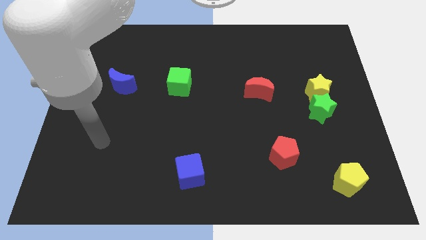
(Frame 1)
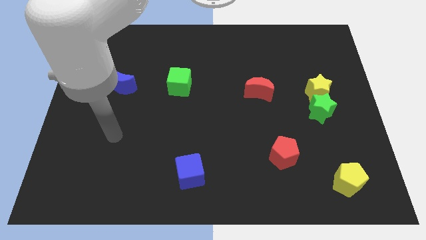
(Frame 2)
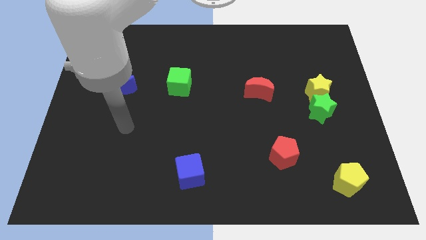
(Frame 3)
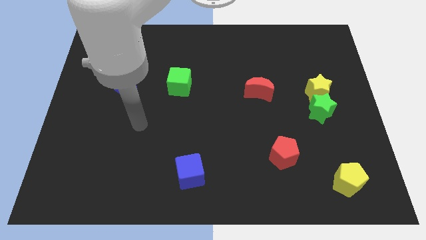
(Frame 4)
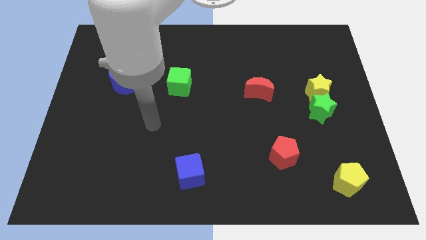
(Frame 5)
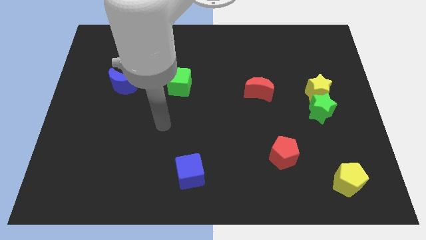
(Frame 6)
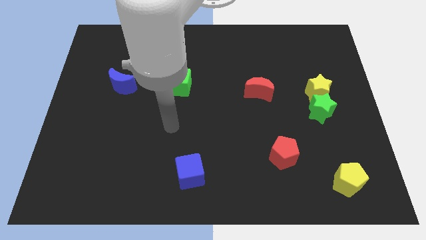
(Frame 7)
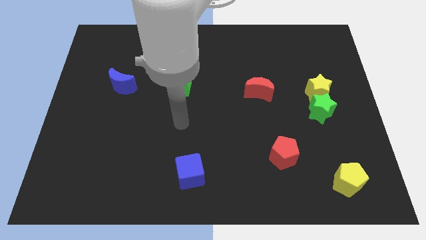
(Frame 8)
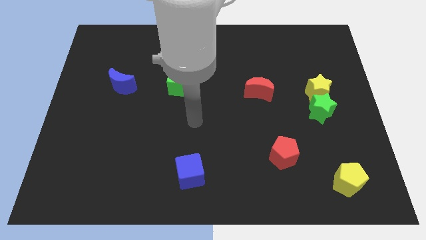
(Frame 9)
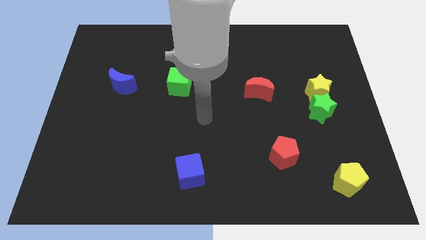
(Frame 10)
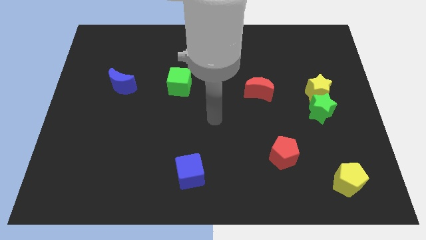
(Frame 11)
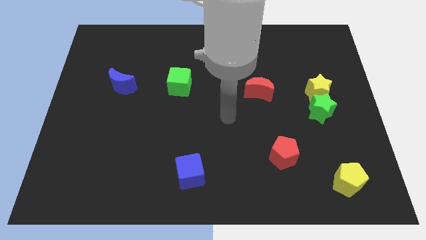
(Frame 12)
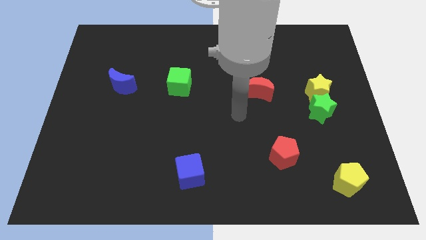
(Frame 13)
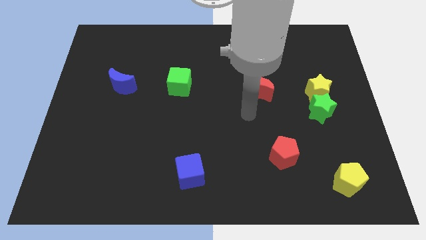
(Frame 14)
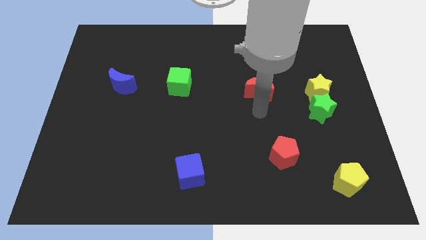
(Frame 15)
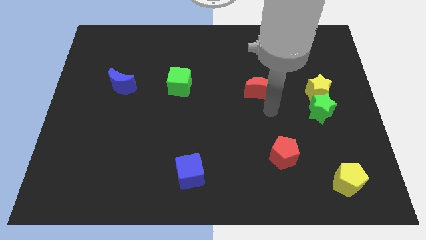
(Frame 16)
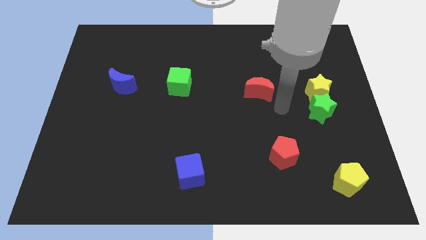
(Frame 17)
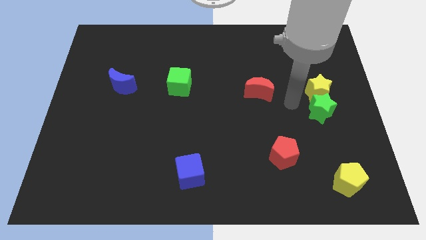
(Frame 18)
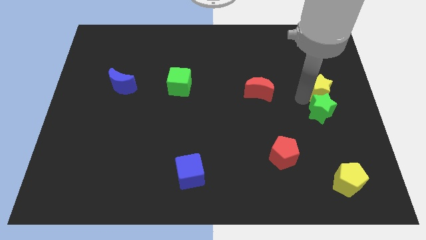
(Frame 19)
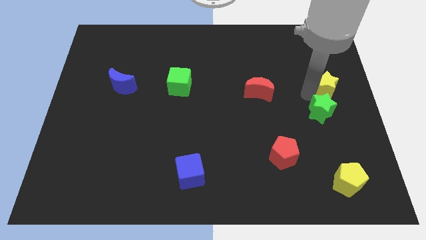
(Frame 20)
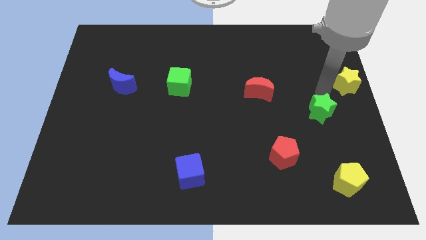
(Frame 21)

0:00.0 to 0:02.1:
pull the green star apart from the yellow star

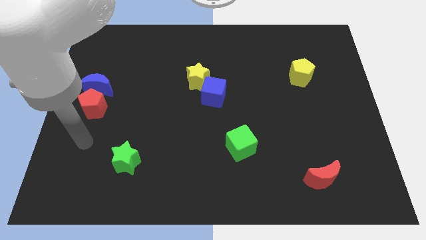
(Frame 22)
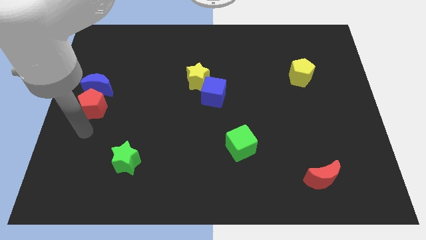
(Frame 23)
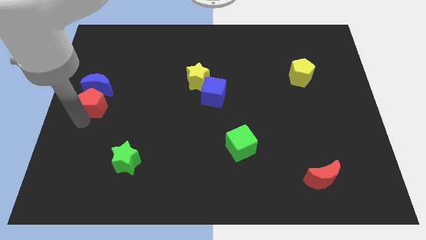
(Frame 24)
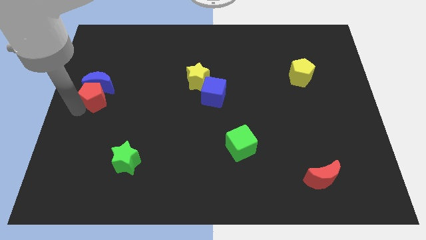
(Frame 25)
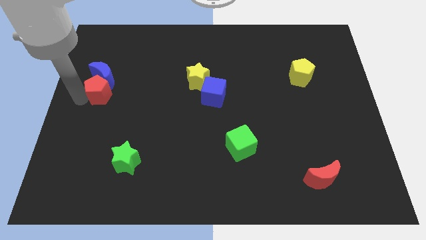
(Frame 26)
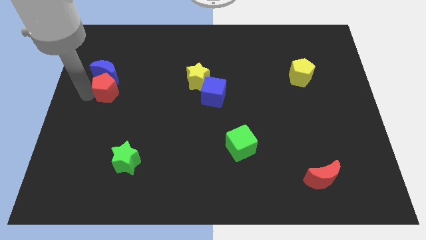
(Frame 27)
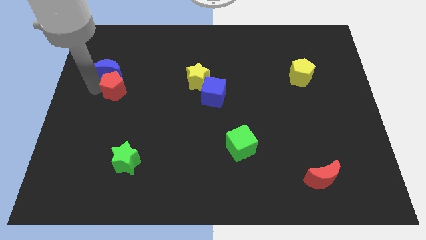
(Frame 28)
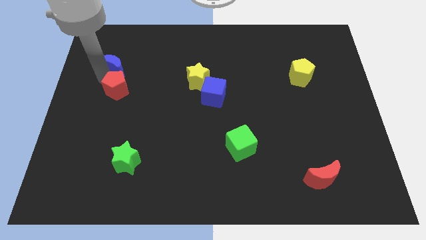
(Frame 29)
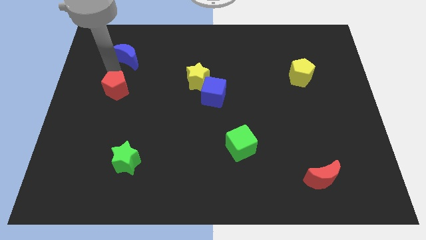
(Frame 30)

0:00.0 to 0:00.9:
move the red pentagon away from the blue moon

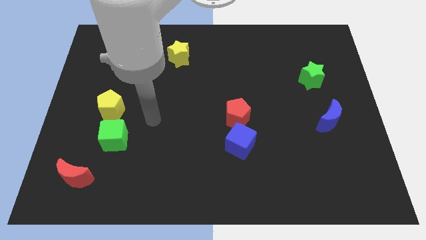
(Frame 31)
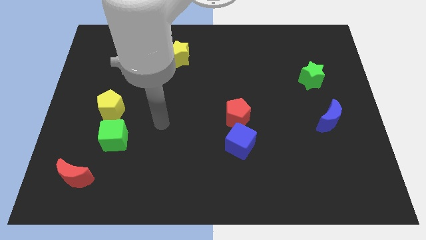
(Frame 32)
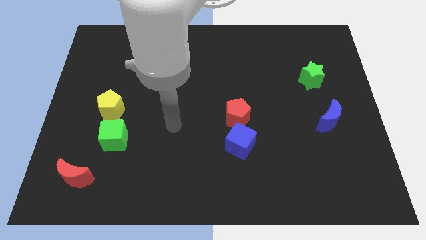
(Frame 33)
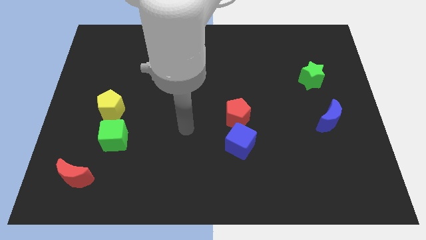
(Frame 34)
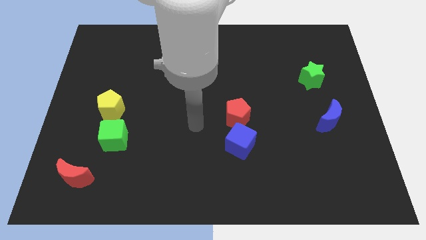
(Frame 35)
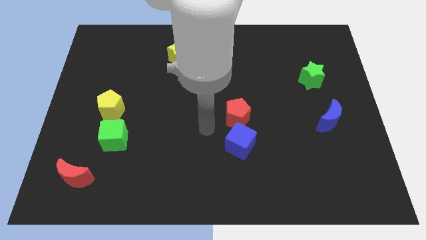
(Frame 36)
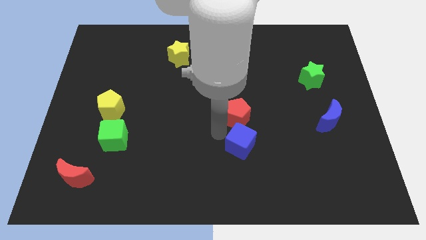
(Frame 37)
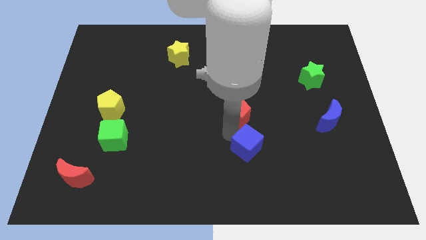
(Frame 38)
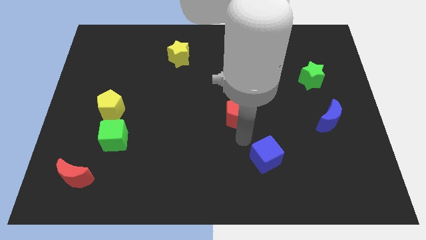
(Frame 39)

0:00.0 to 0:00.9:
move the red pentagon away from the blue cube

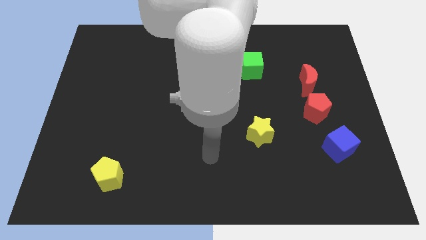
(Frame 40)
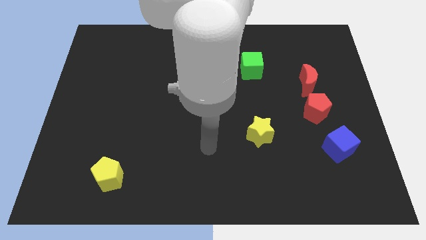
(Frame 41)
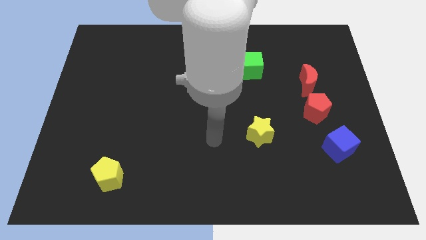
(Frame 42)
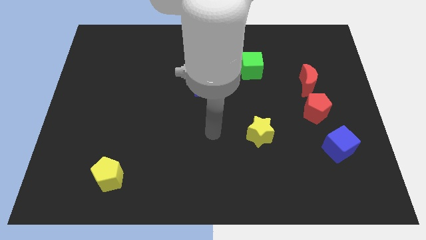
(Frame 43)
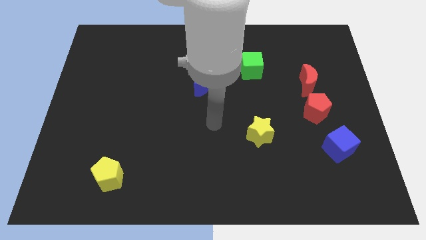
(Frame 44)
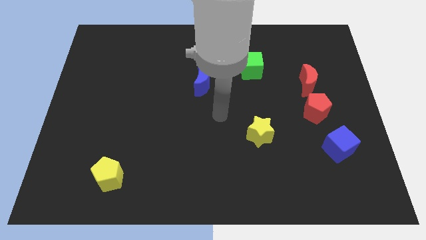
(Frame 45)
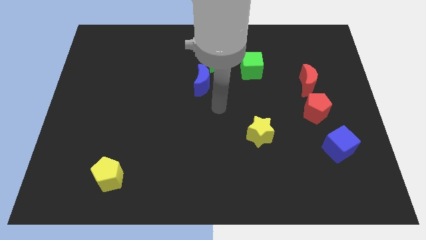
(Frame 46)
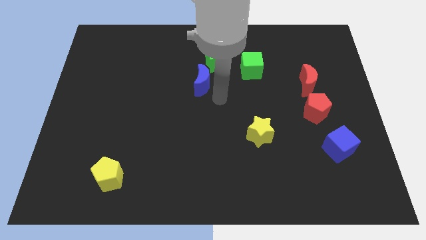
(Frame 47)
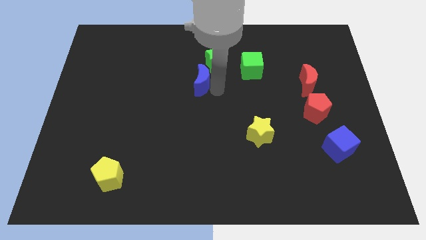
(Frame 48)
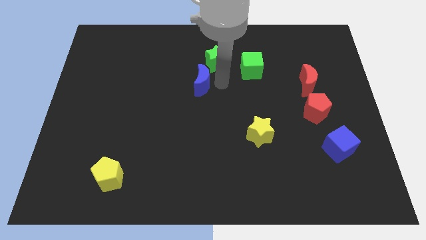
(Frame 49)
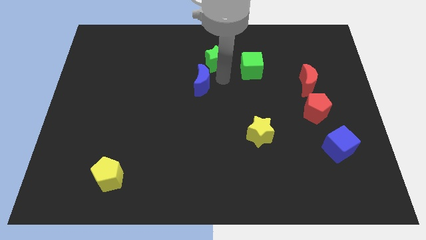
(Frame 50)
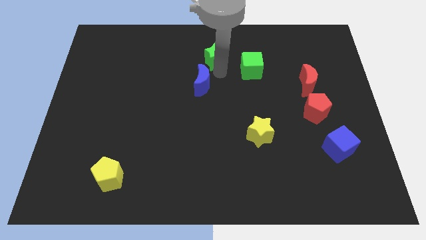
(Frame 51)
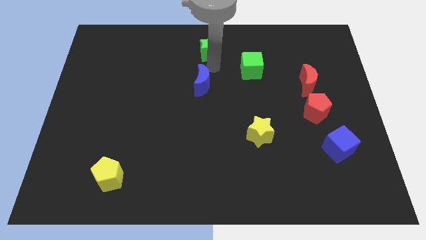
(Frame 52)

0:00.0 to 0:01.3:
pull the blue moon apart from the green star

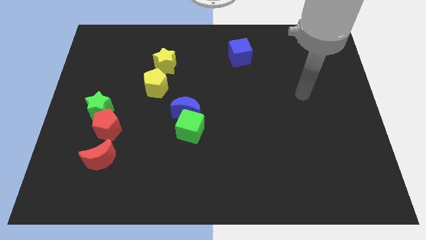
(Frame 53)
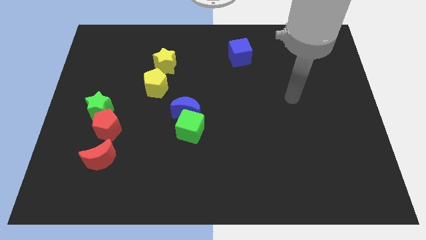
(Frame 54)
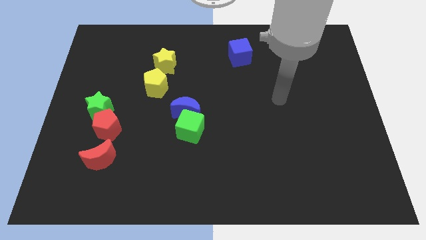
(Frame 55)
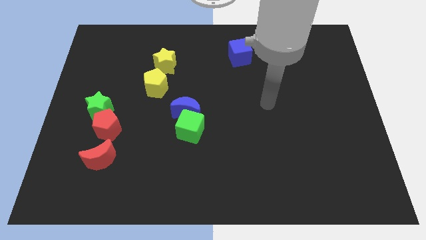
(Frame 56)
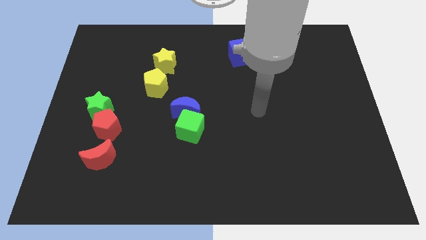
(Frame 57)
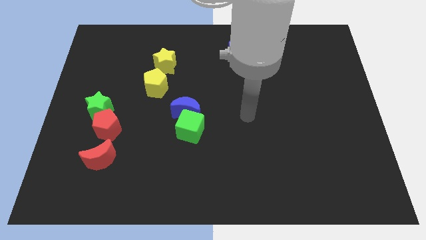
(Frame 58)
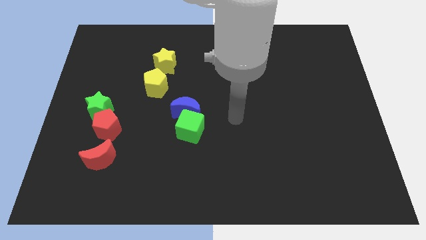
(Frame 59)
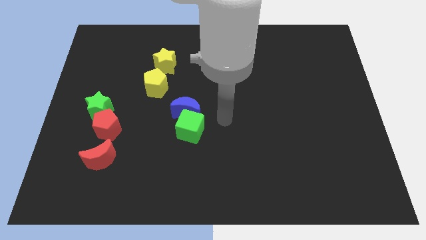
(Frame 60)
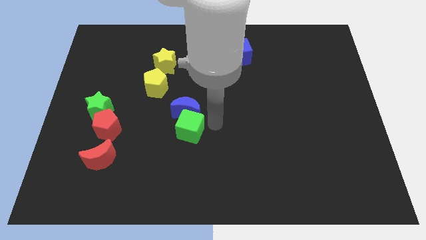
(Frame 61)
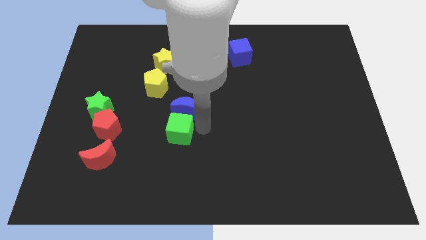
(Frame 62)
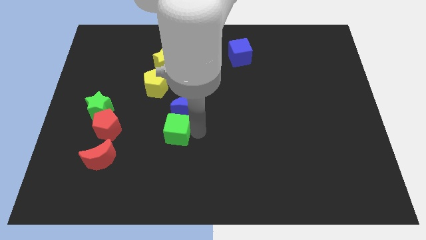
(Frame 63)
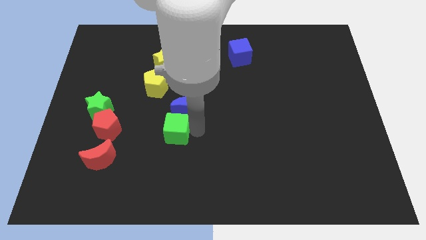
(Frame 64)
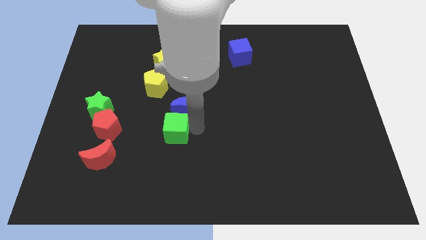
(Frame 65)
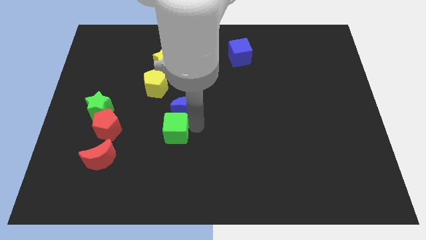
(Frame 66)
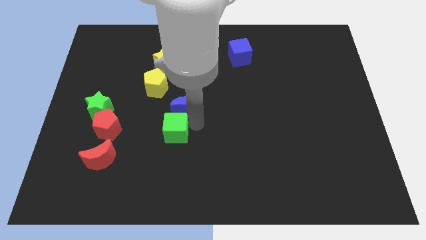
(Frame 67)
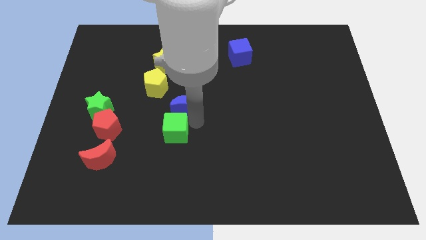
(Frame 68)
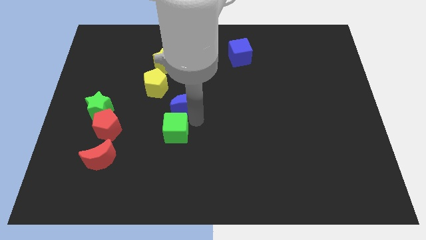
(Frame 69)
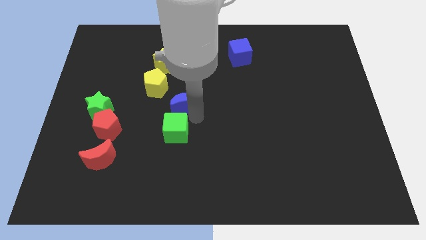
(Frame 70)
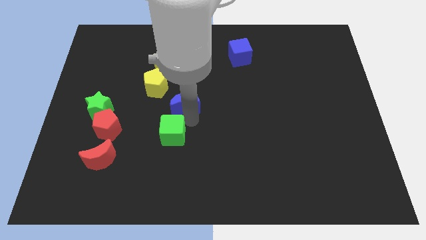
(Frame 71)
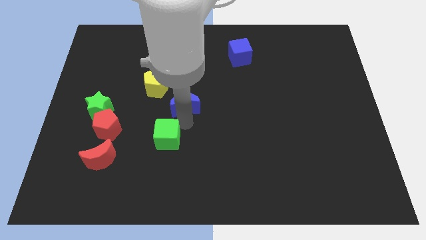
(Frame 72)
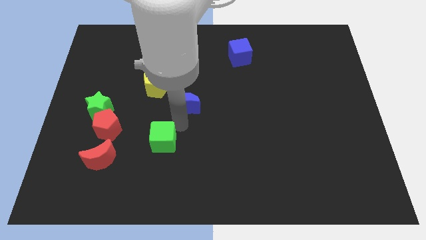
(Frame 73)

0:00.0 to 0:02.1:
pull the blue moon apart from the green cube

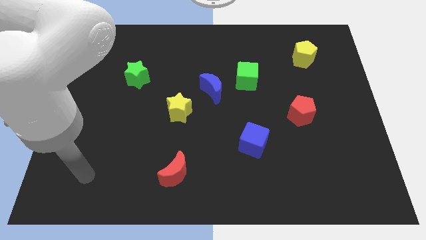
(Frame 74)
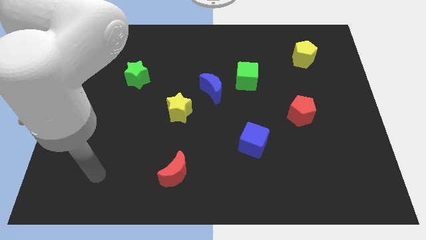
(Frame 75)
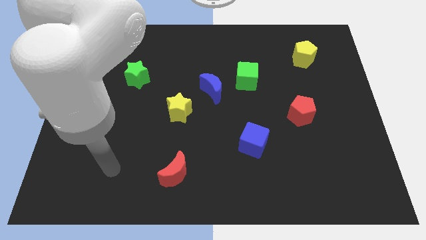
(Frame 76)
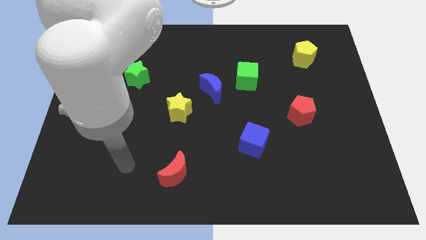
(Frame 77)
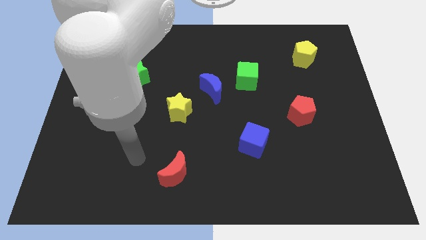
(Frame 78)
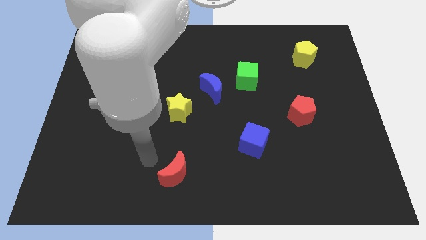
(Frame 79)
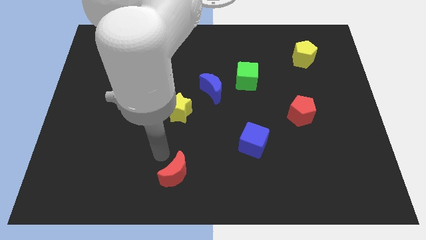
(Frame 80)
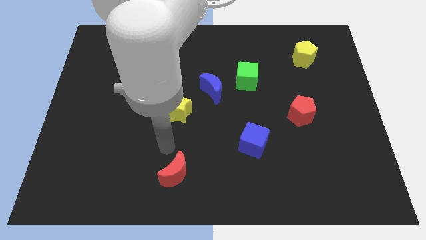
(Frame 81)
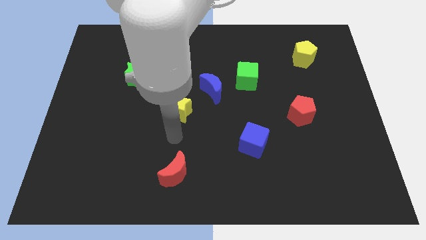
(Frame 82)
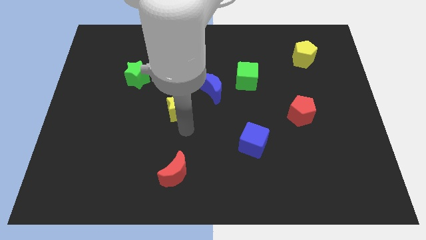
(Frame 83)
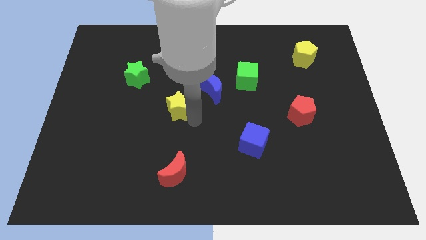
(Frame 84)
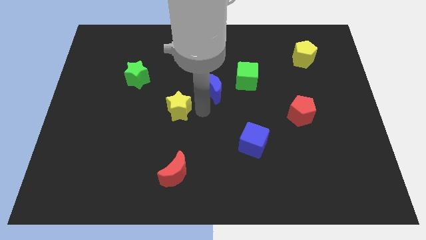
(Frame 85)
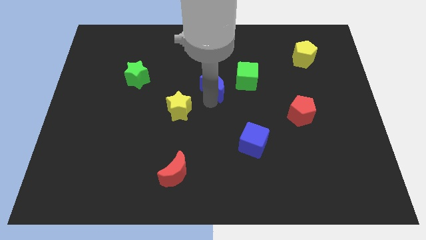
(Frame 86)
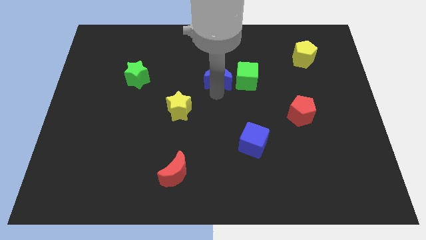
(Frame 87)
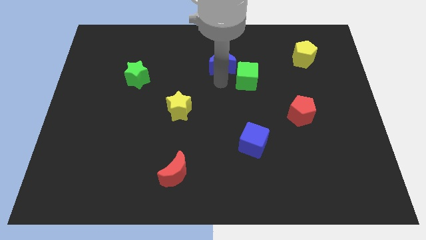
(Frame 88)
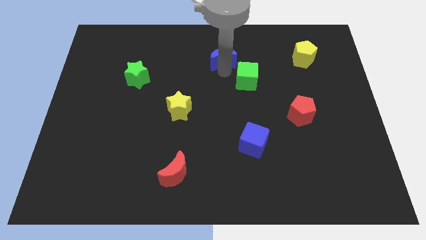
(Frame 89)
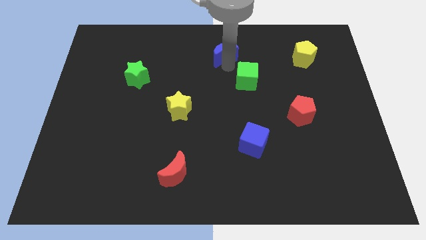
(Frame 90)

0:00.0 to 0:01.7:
move the green cube away from the blue moon
